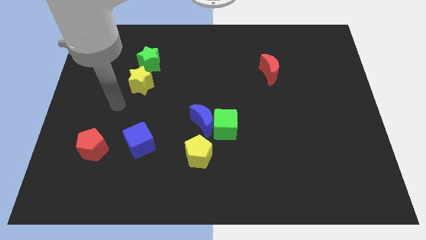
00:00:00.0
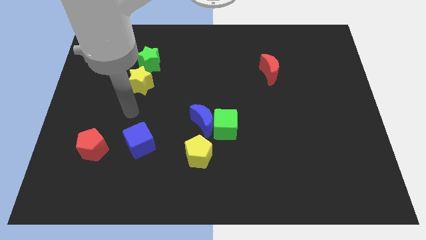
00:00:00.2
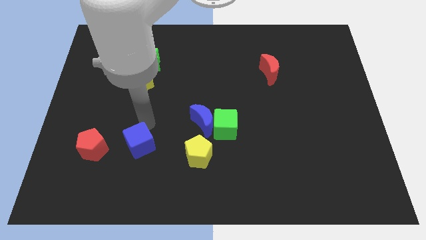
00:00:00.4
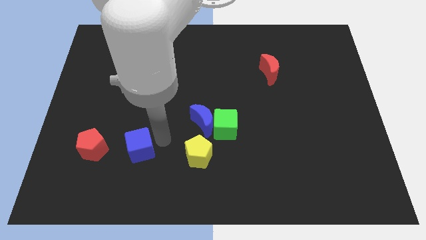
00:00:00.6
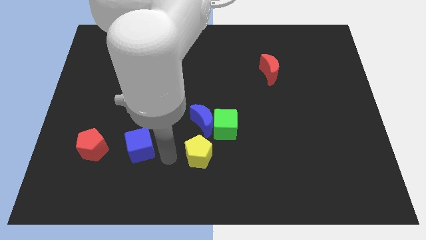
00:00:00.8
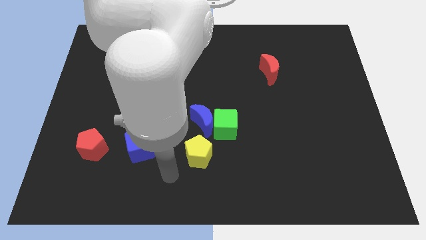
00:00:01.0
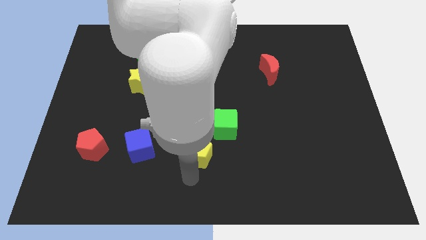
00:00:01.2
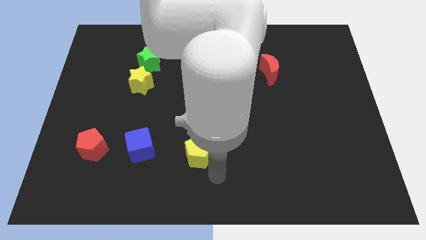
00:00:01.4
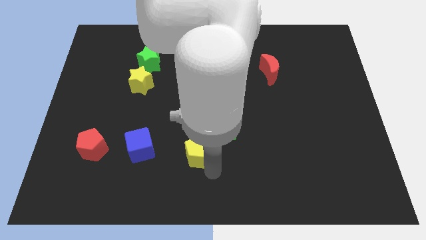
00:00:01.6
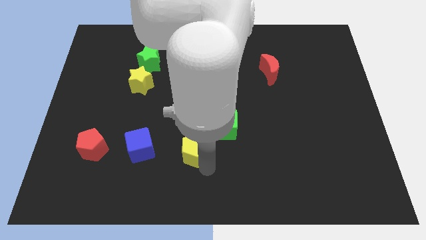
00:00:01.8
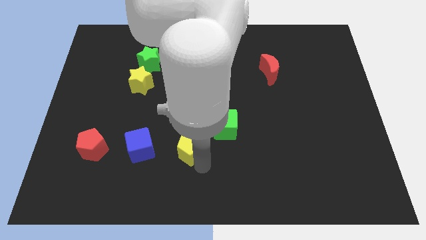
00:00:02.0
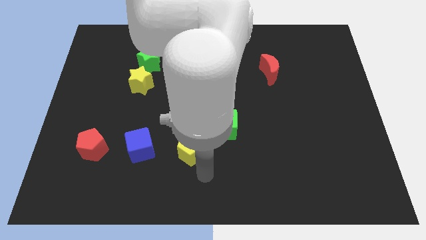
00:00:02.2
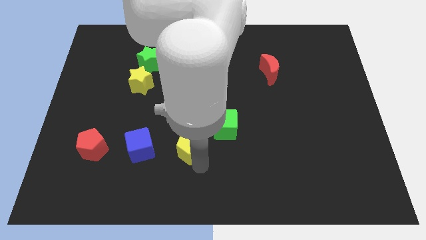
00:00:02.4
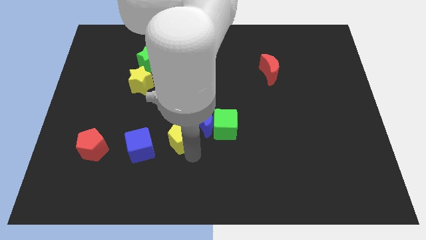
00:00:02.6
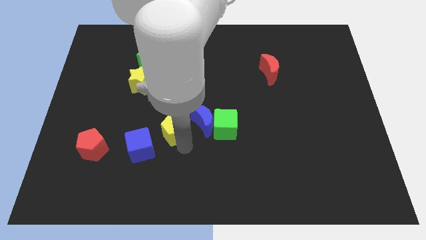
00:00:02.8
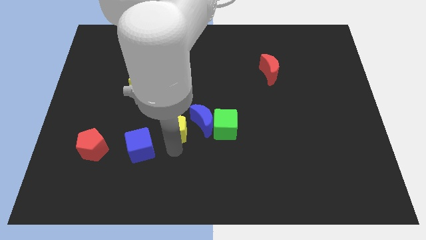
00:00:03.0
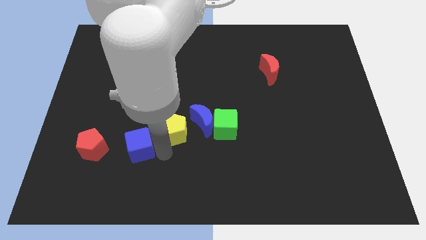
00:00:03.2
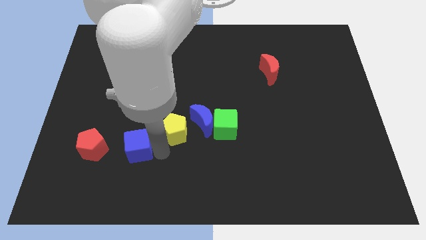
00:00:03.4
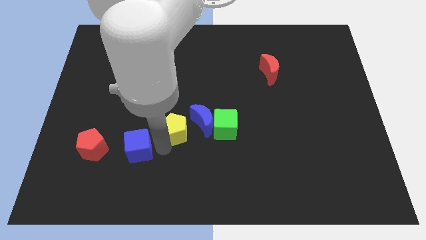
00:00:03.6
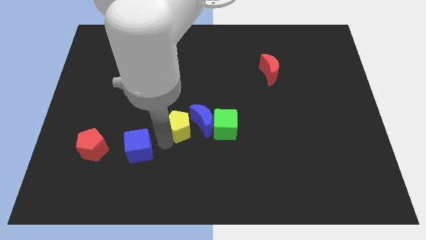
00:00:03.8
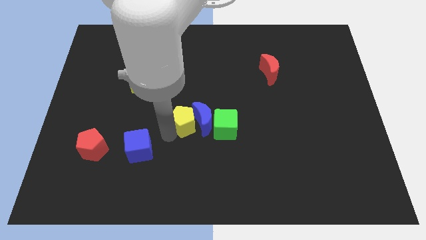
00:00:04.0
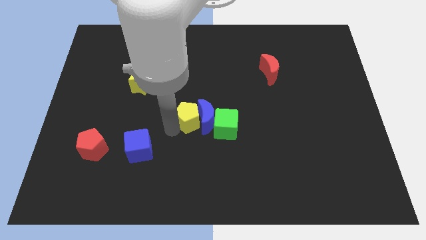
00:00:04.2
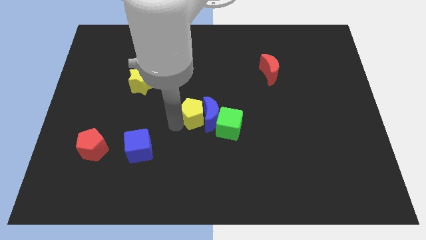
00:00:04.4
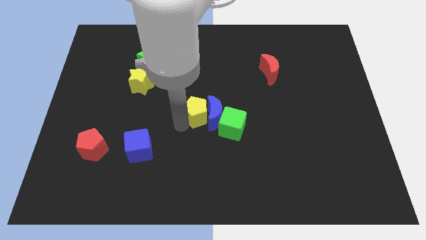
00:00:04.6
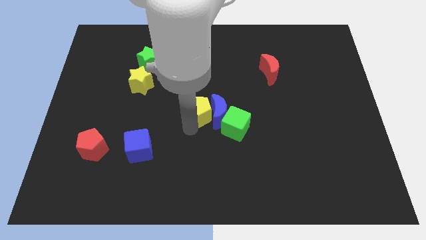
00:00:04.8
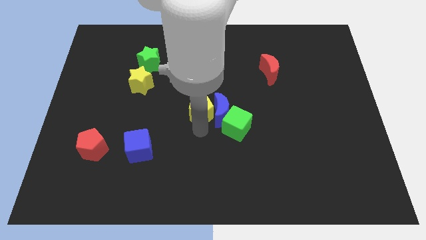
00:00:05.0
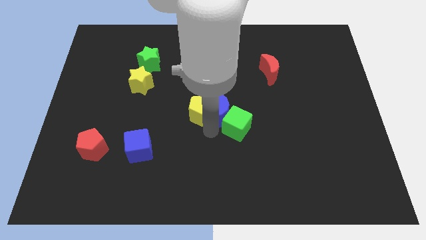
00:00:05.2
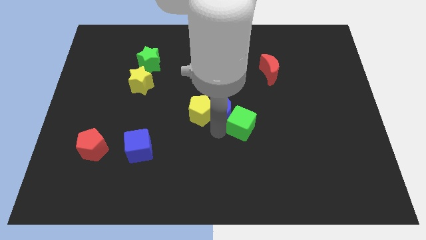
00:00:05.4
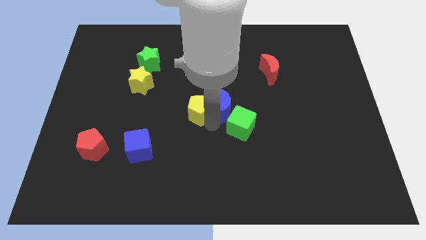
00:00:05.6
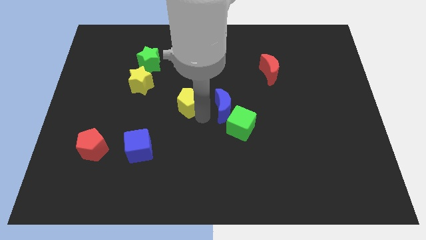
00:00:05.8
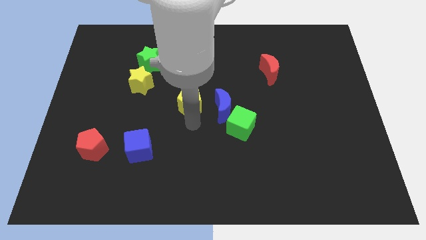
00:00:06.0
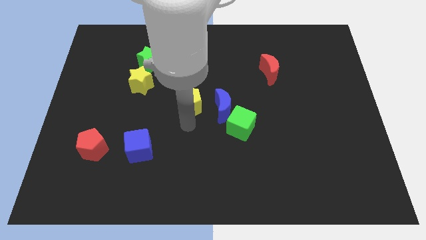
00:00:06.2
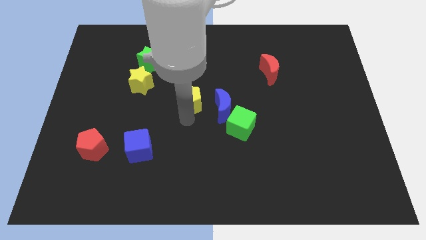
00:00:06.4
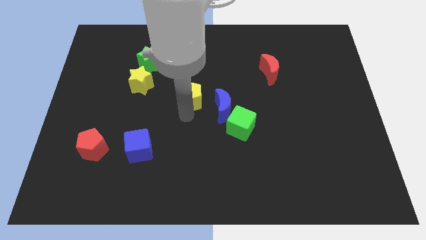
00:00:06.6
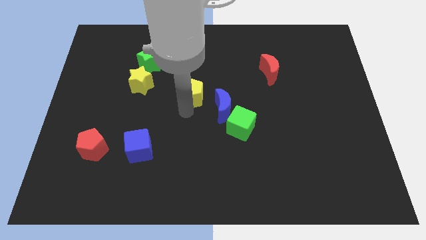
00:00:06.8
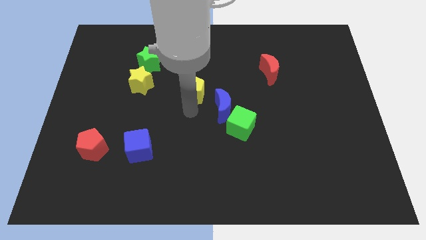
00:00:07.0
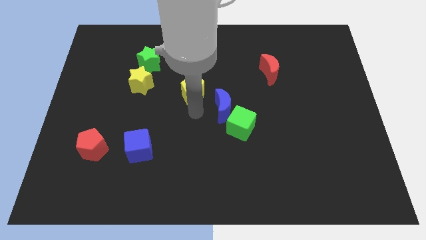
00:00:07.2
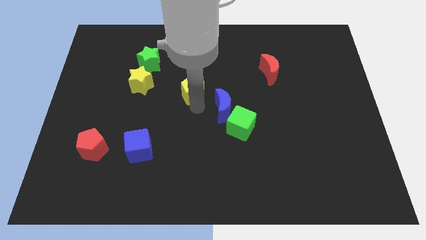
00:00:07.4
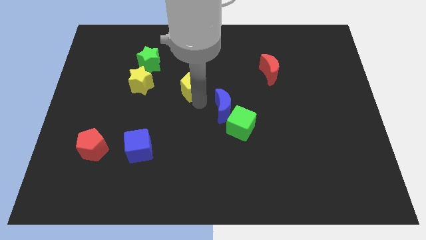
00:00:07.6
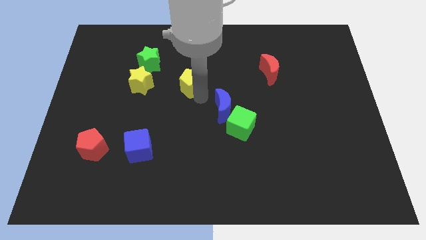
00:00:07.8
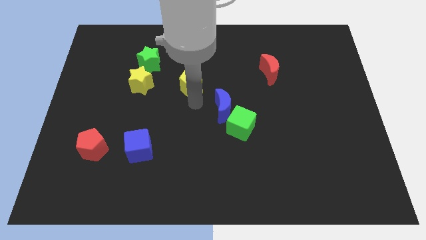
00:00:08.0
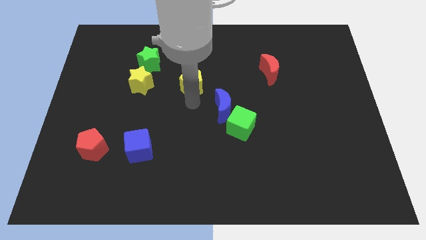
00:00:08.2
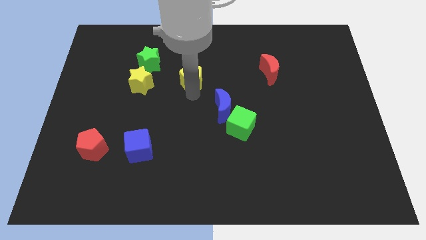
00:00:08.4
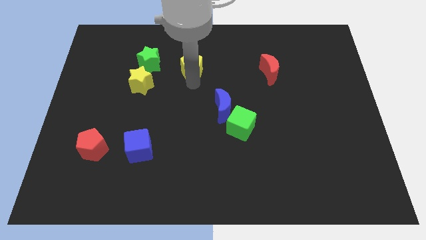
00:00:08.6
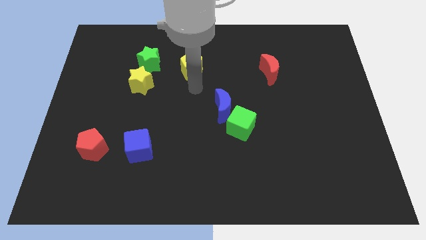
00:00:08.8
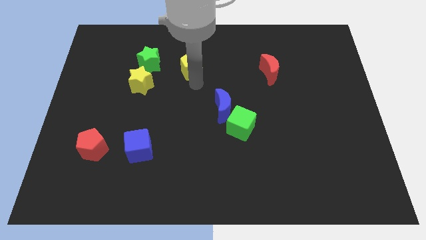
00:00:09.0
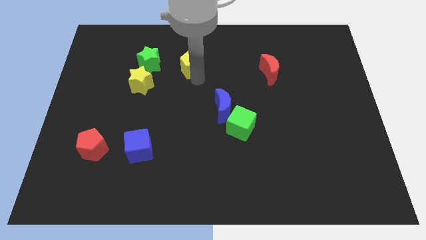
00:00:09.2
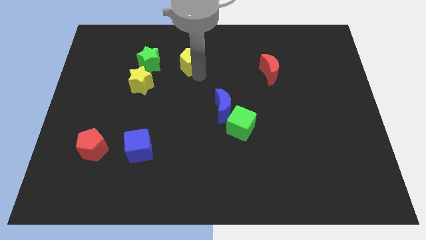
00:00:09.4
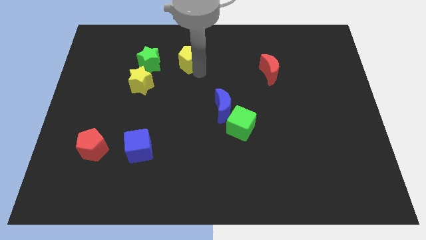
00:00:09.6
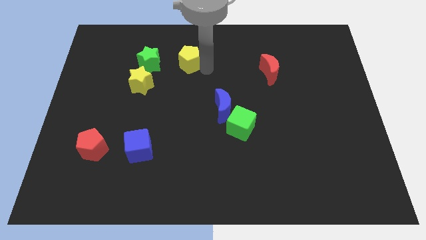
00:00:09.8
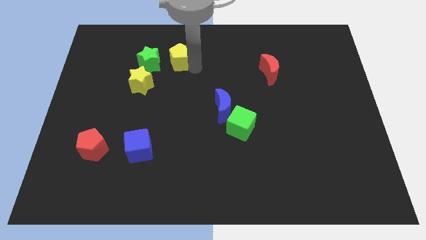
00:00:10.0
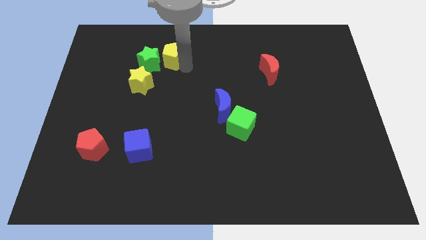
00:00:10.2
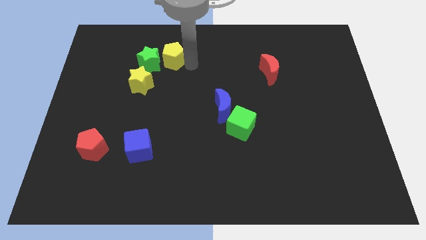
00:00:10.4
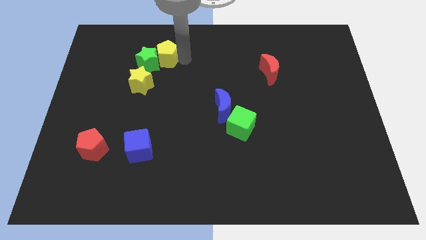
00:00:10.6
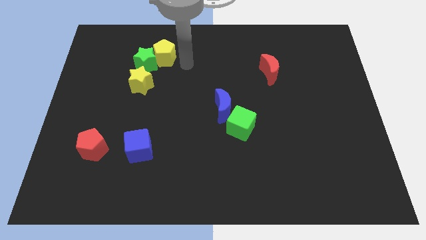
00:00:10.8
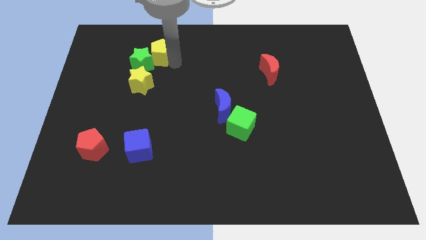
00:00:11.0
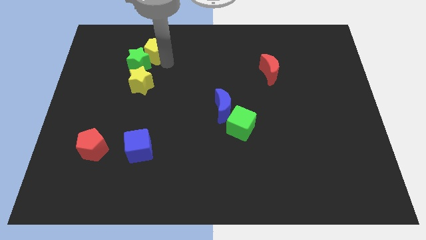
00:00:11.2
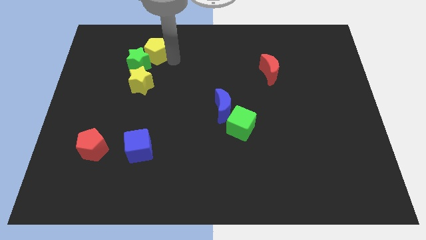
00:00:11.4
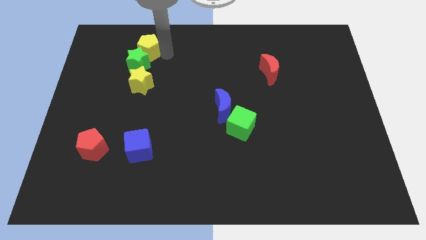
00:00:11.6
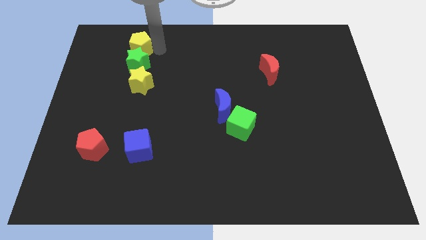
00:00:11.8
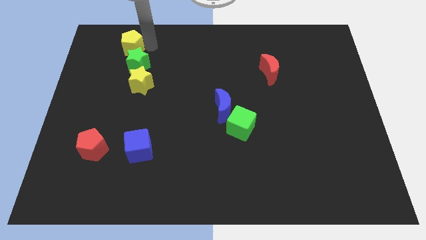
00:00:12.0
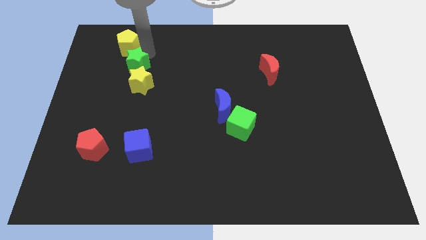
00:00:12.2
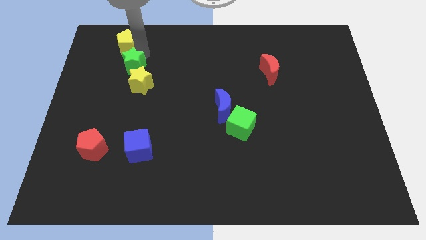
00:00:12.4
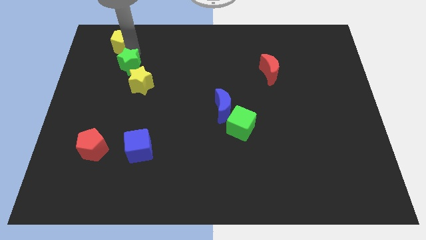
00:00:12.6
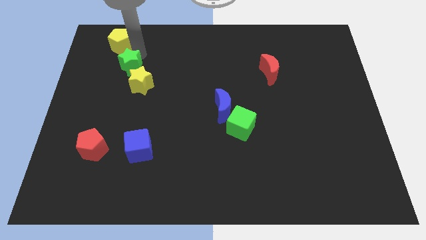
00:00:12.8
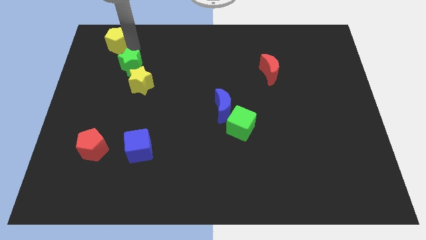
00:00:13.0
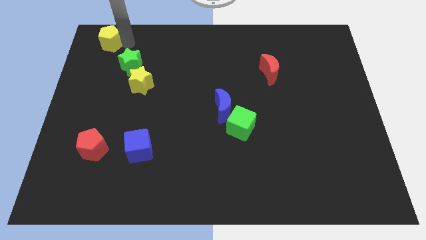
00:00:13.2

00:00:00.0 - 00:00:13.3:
push the yellow pentagon to the top left of the board
